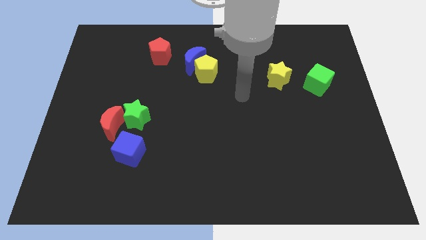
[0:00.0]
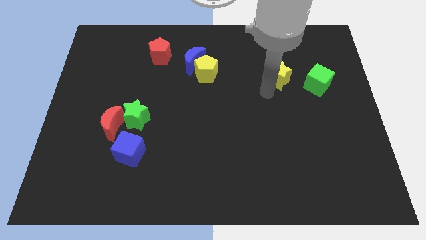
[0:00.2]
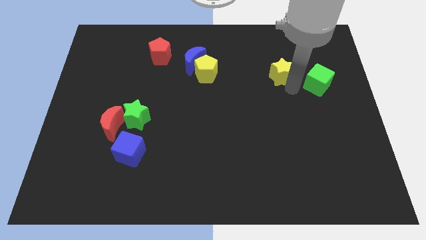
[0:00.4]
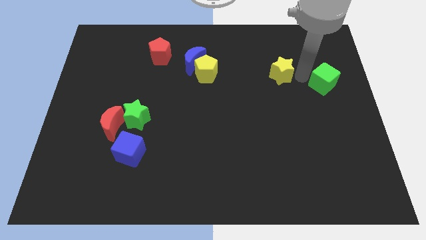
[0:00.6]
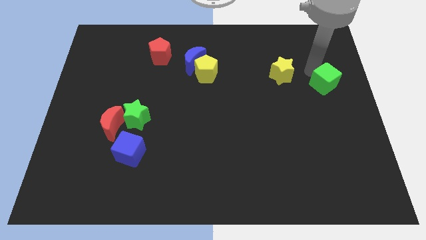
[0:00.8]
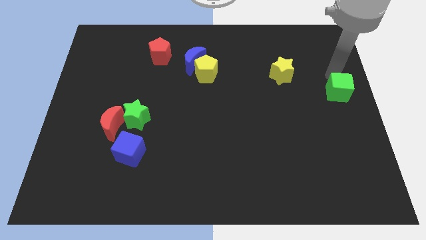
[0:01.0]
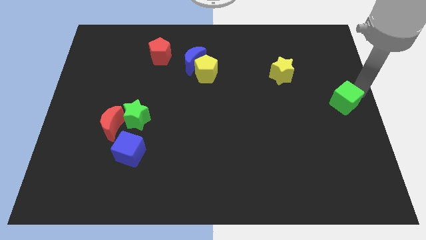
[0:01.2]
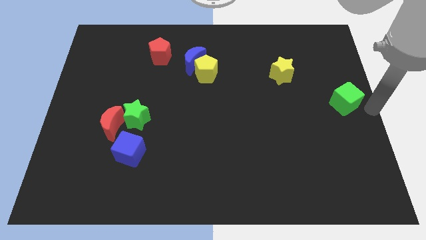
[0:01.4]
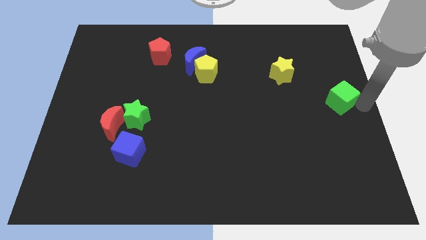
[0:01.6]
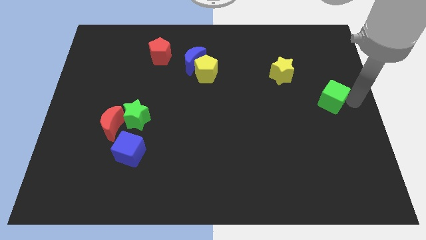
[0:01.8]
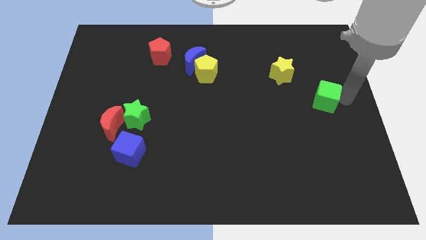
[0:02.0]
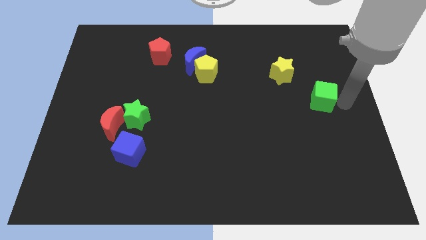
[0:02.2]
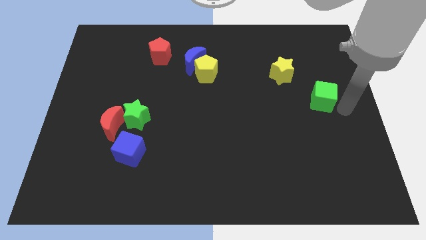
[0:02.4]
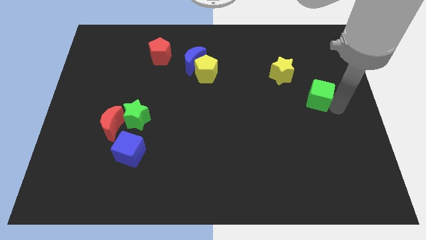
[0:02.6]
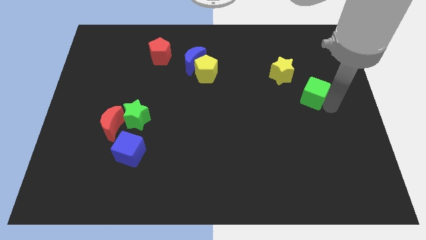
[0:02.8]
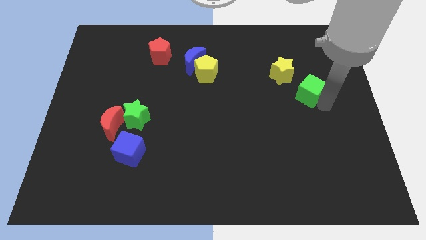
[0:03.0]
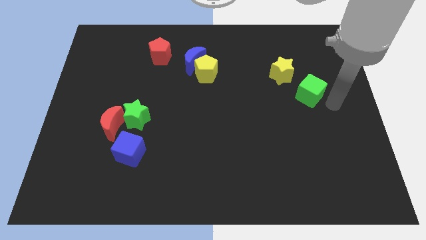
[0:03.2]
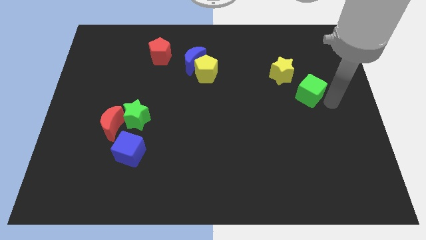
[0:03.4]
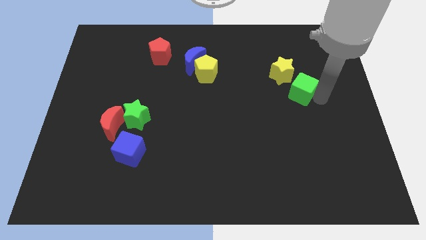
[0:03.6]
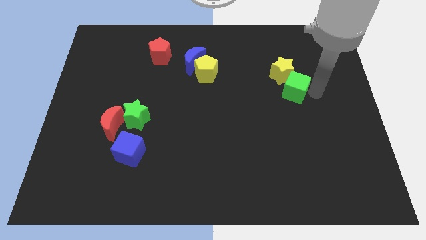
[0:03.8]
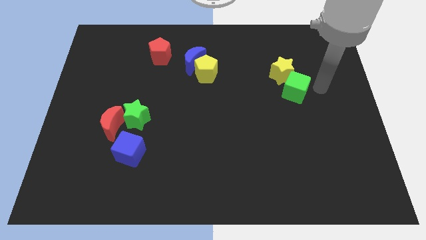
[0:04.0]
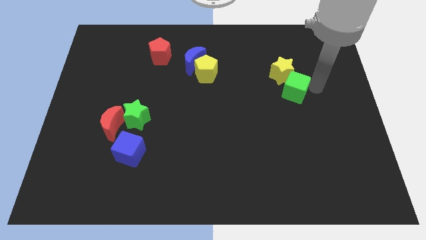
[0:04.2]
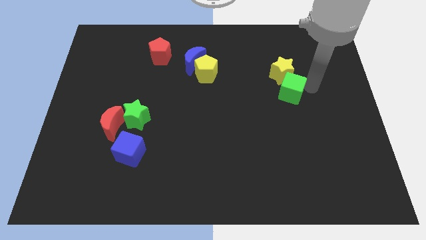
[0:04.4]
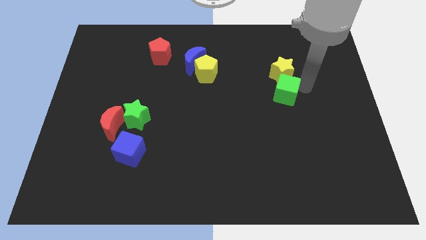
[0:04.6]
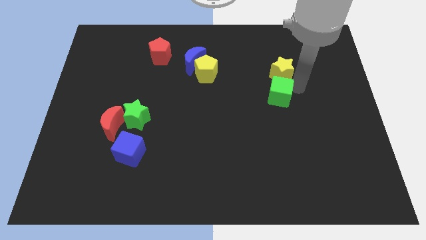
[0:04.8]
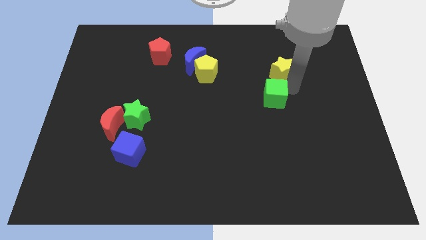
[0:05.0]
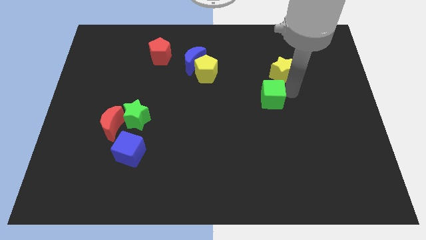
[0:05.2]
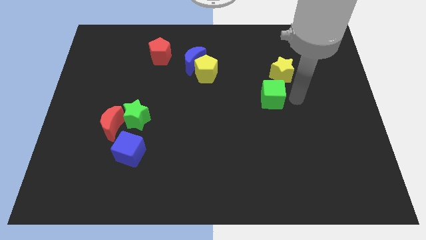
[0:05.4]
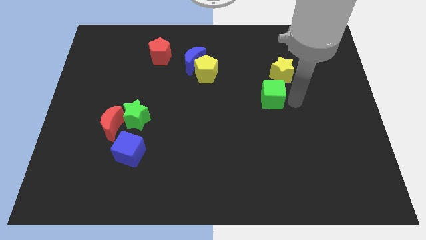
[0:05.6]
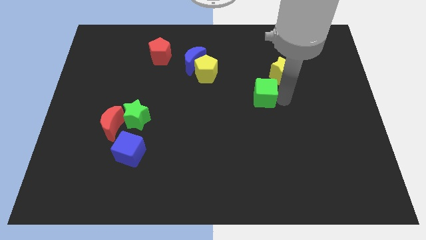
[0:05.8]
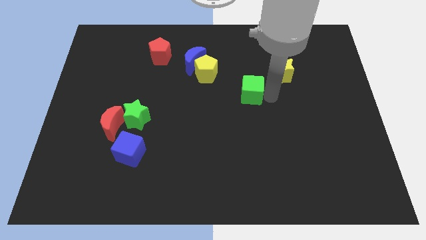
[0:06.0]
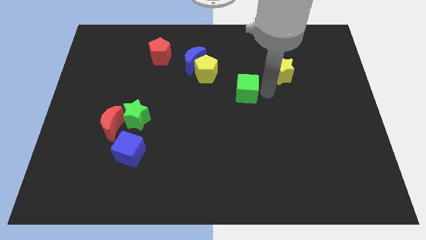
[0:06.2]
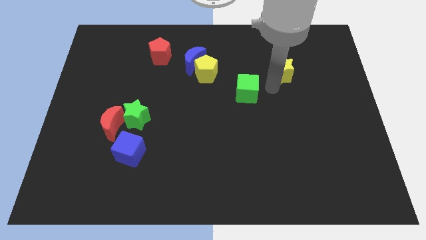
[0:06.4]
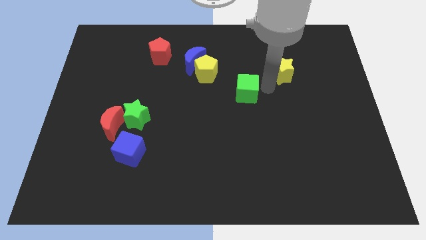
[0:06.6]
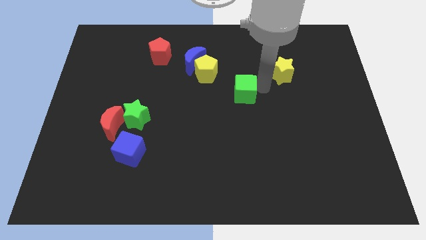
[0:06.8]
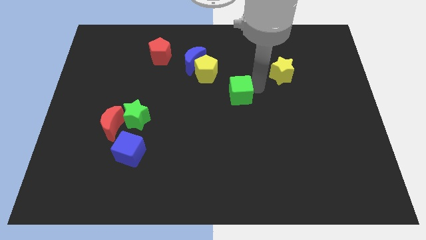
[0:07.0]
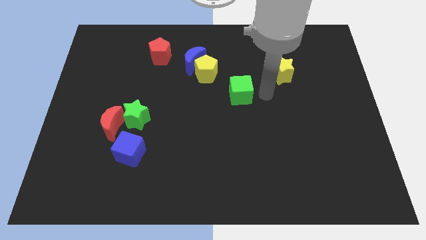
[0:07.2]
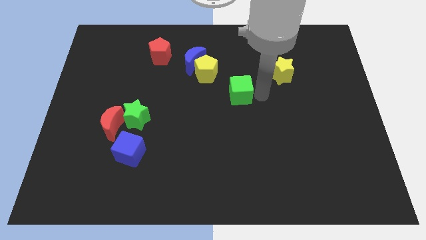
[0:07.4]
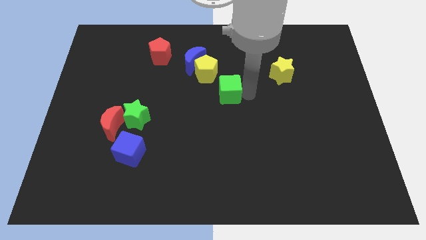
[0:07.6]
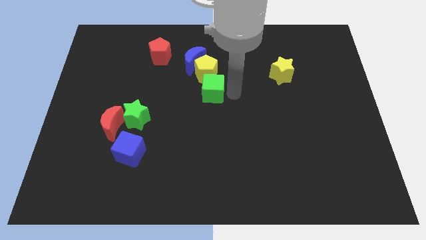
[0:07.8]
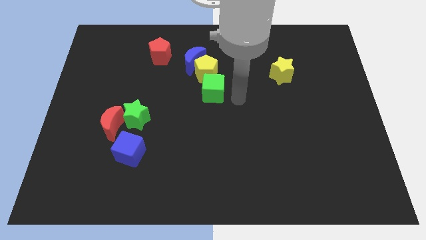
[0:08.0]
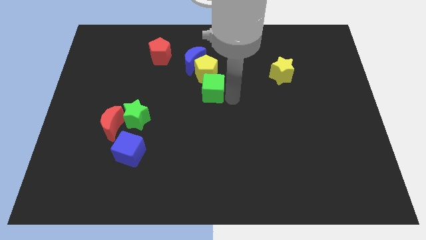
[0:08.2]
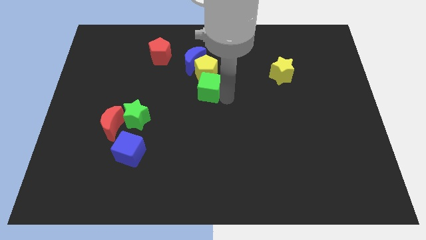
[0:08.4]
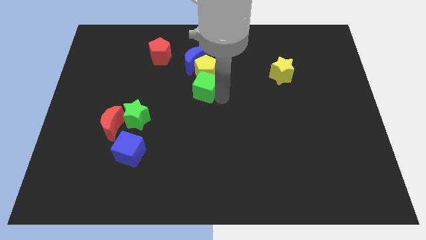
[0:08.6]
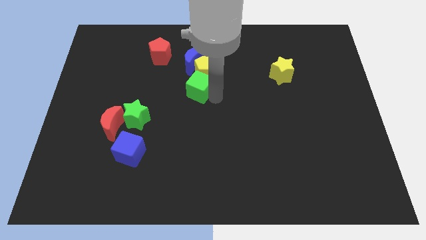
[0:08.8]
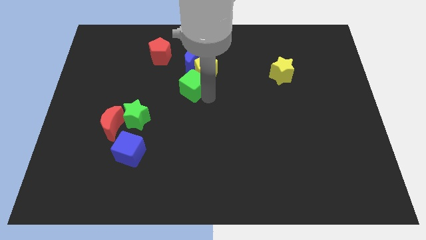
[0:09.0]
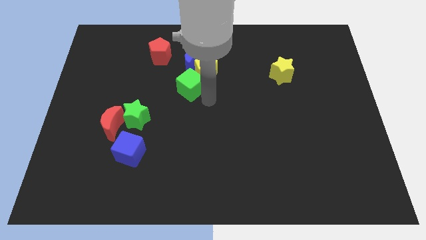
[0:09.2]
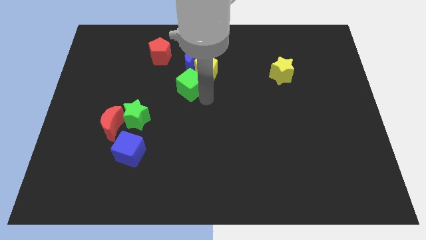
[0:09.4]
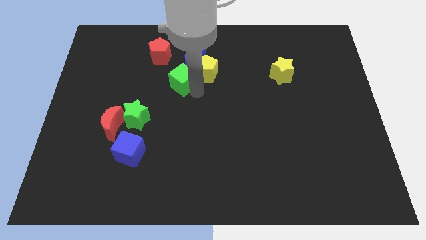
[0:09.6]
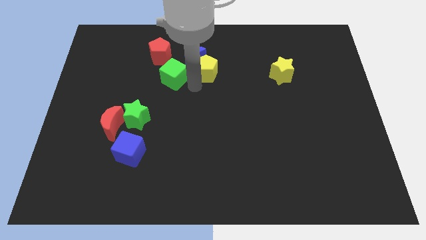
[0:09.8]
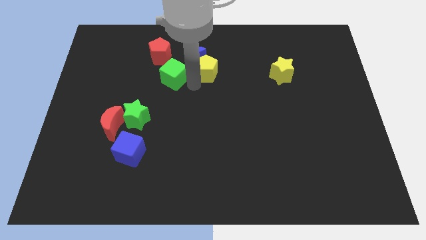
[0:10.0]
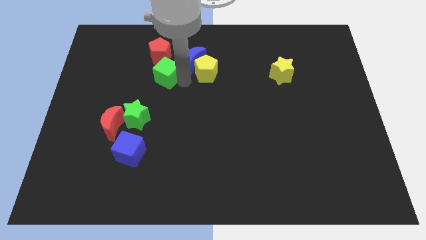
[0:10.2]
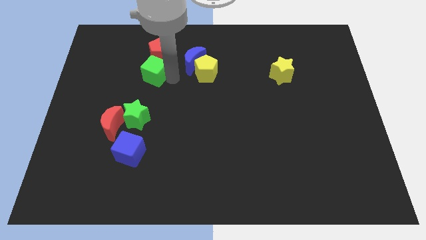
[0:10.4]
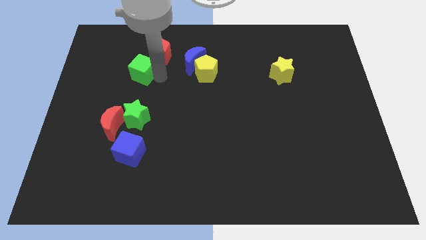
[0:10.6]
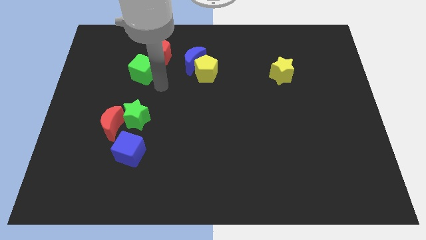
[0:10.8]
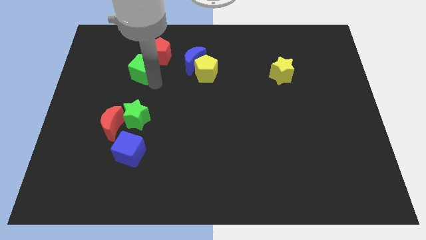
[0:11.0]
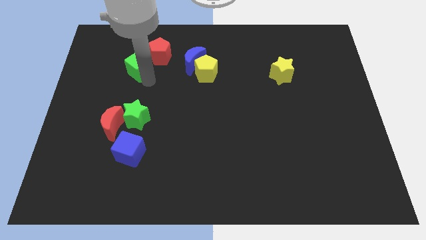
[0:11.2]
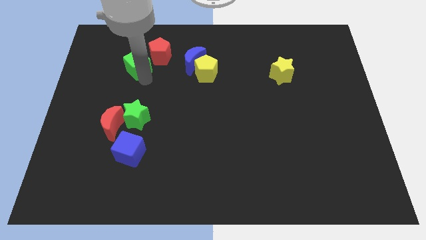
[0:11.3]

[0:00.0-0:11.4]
move the green cube left of the red pentagon

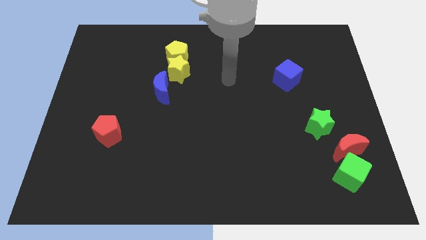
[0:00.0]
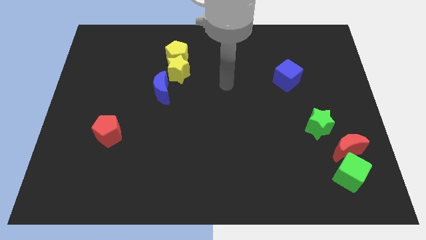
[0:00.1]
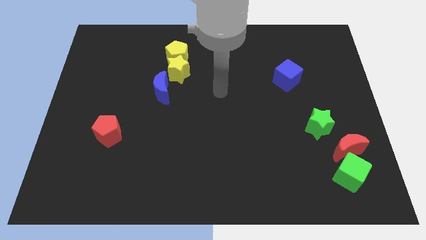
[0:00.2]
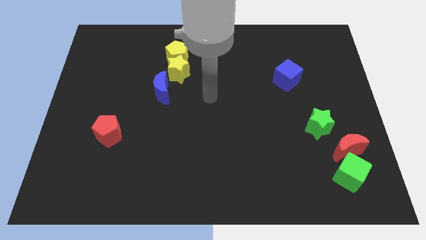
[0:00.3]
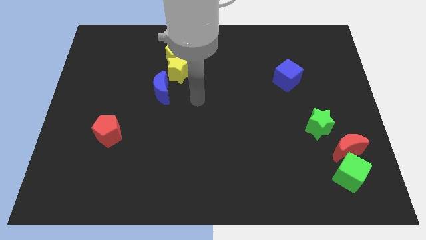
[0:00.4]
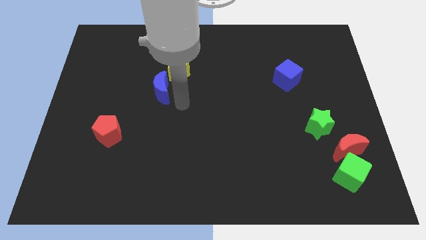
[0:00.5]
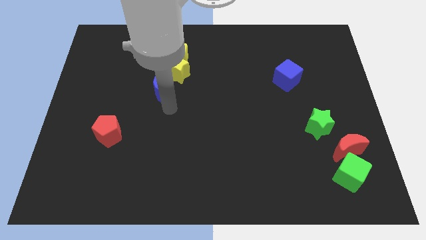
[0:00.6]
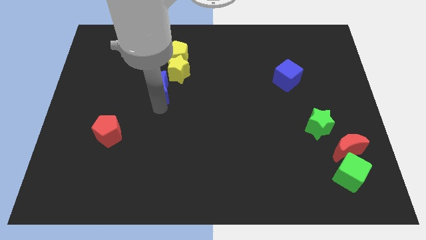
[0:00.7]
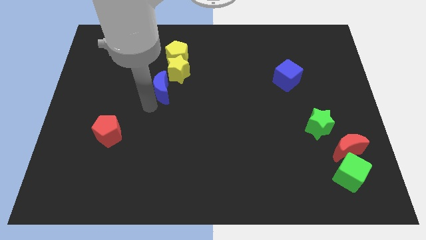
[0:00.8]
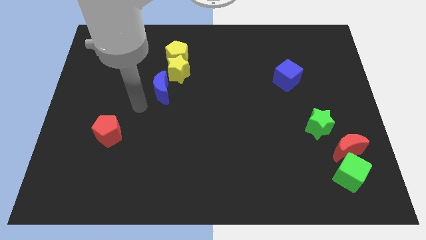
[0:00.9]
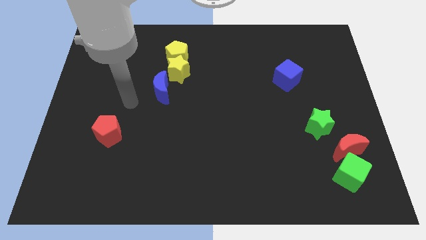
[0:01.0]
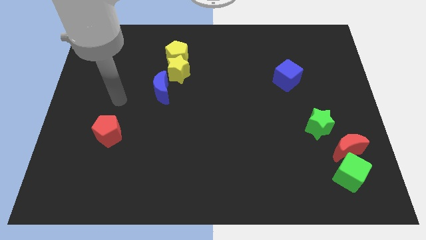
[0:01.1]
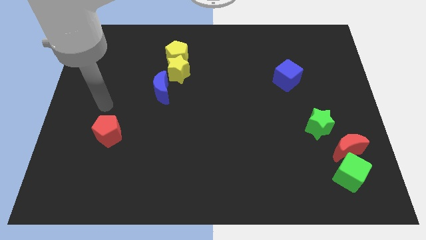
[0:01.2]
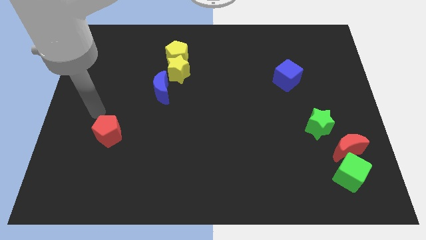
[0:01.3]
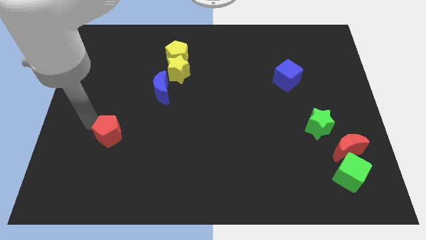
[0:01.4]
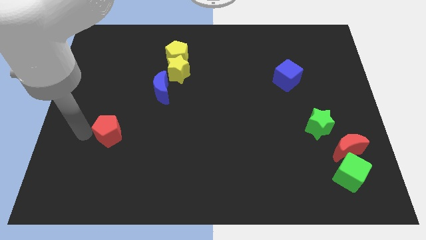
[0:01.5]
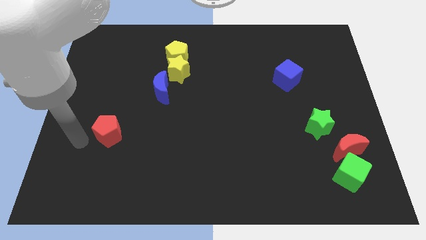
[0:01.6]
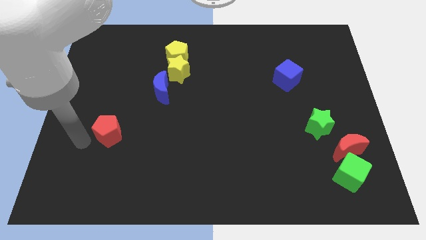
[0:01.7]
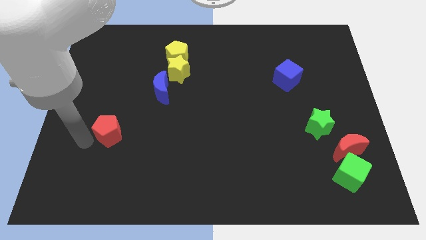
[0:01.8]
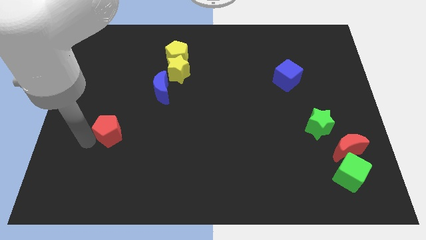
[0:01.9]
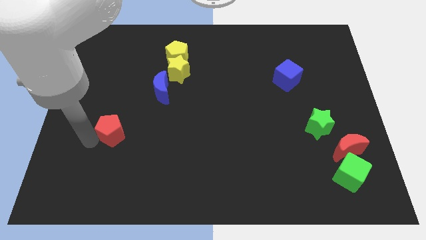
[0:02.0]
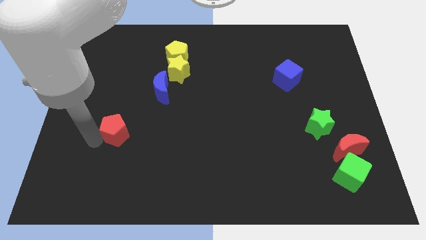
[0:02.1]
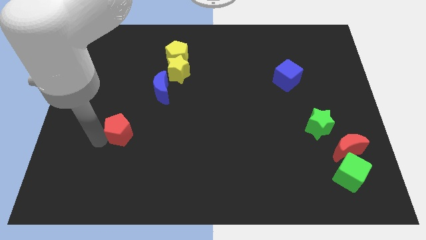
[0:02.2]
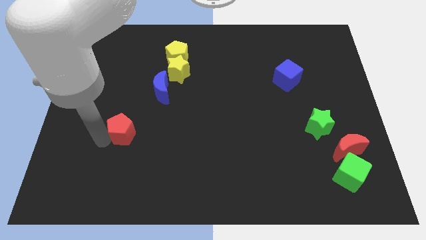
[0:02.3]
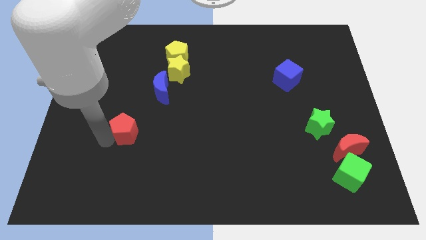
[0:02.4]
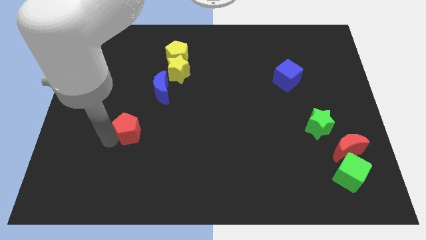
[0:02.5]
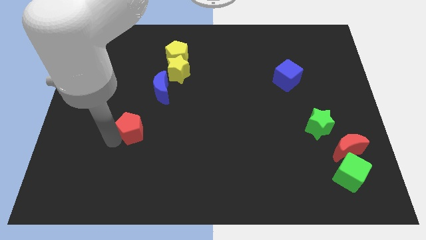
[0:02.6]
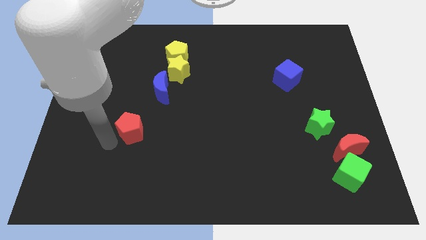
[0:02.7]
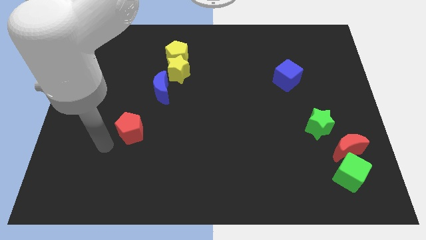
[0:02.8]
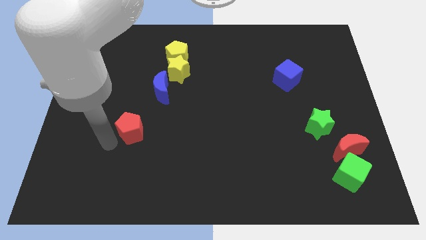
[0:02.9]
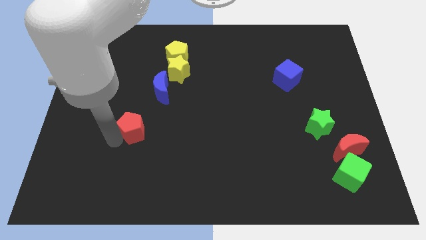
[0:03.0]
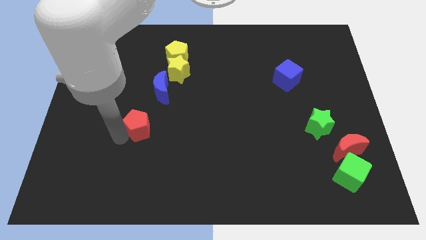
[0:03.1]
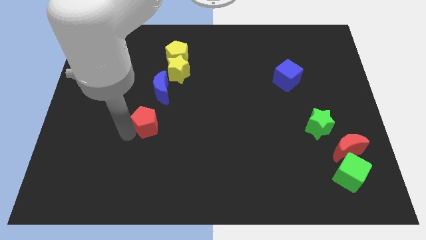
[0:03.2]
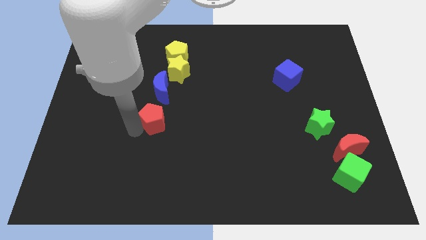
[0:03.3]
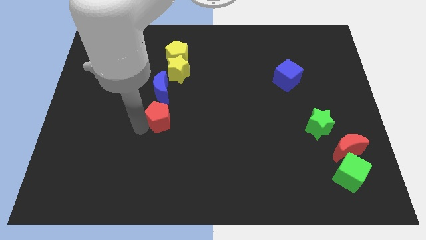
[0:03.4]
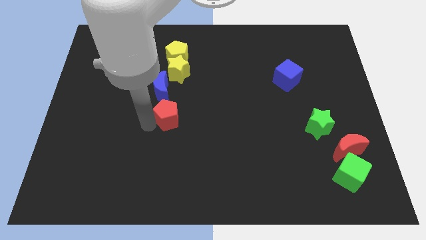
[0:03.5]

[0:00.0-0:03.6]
move the red pentagon to the bottom right side of the blue moon
